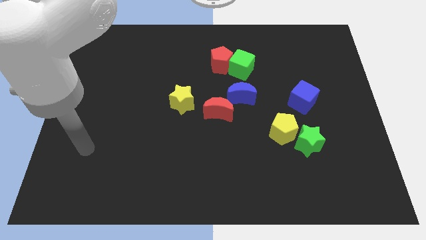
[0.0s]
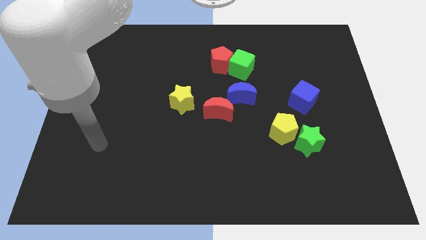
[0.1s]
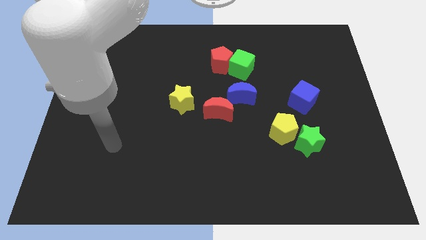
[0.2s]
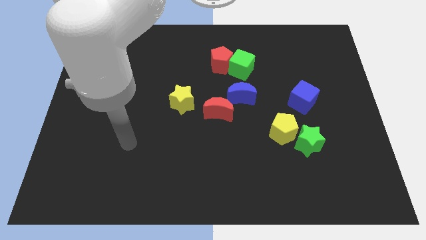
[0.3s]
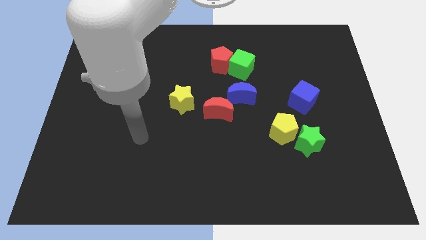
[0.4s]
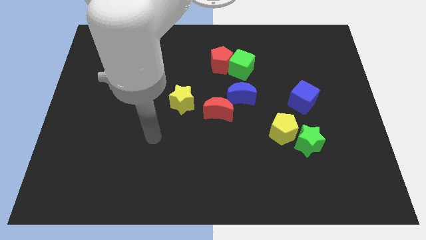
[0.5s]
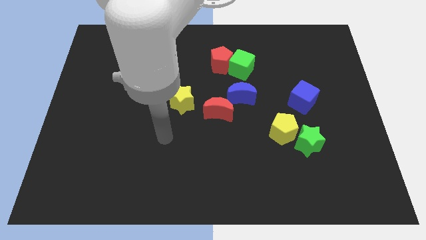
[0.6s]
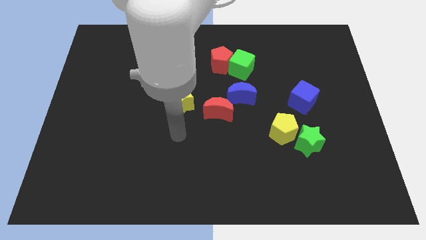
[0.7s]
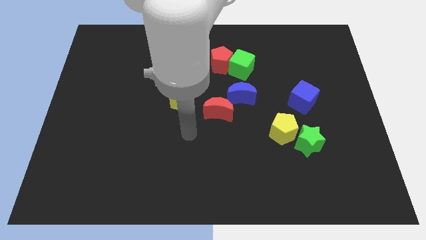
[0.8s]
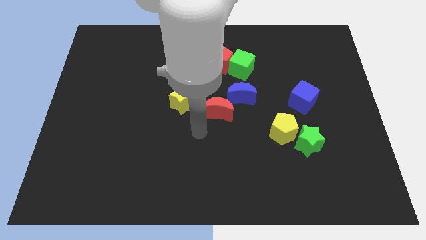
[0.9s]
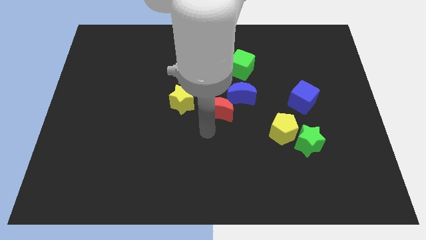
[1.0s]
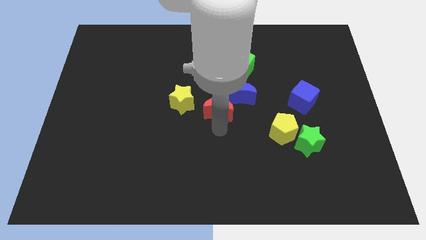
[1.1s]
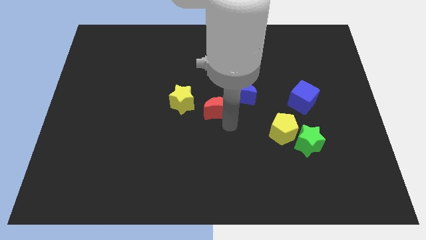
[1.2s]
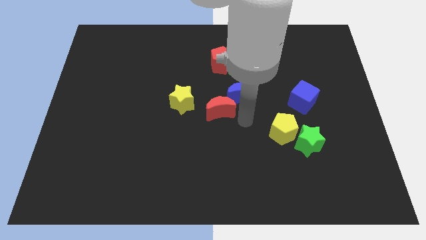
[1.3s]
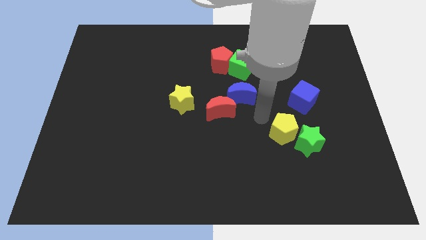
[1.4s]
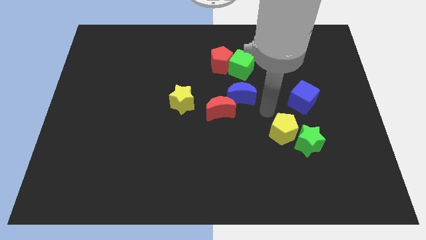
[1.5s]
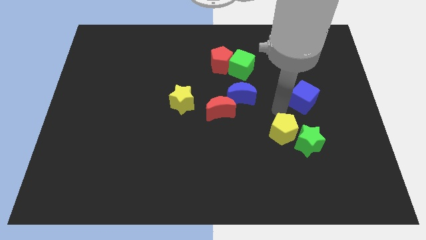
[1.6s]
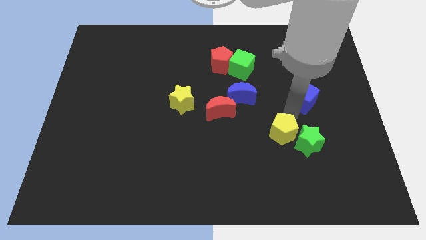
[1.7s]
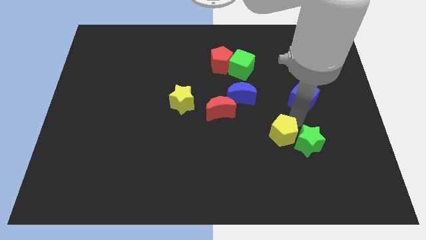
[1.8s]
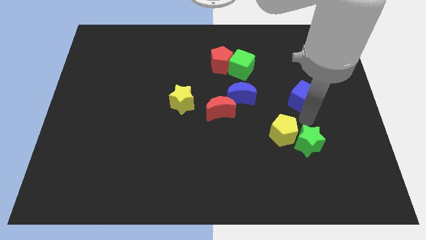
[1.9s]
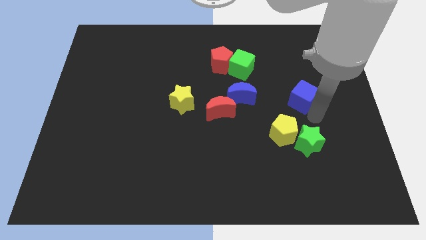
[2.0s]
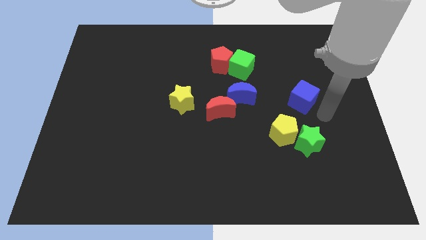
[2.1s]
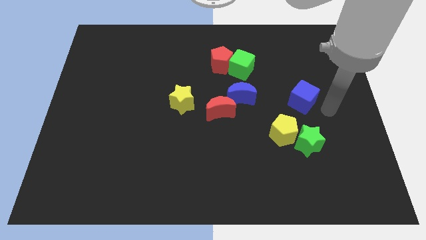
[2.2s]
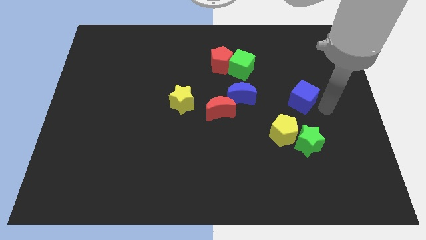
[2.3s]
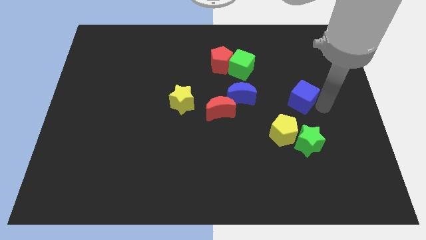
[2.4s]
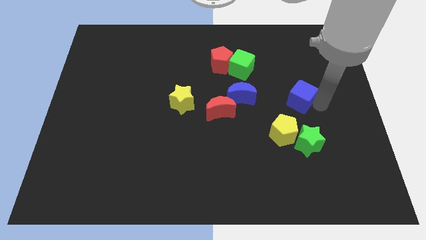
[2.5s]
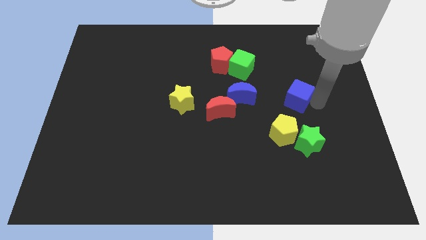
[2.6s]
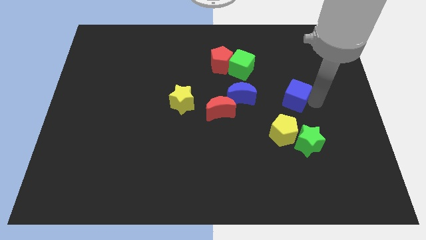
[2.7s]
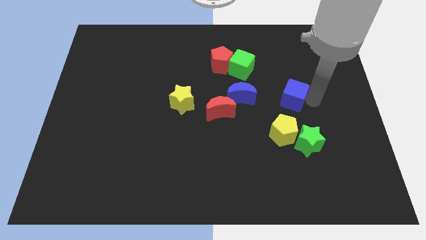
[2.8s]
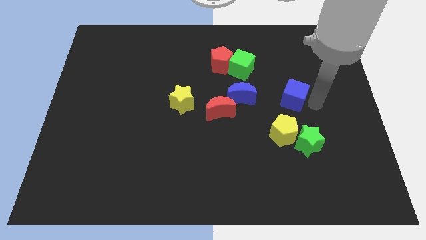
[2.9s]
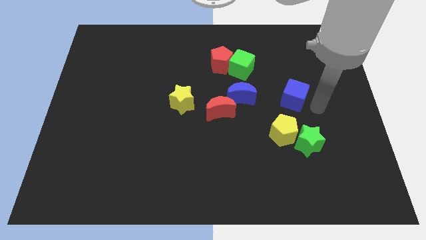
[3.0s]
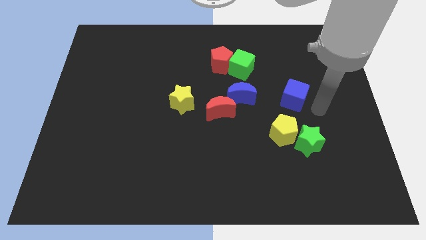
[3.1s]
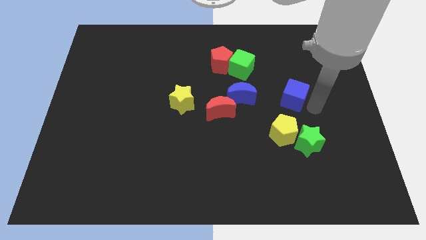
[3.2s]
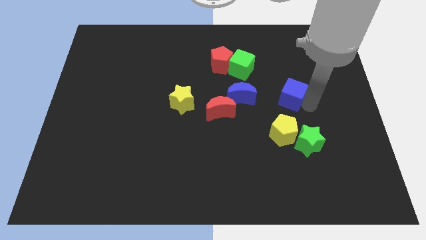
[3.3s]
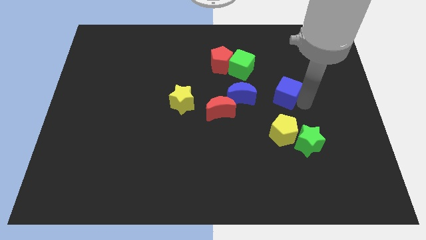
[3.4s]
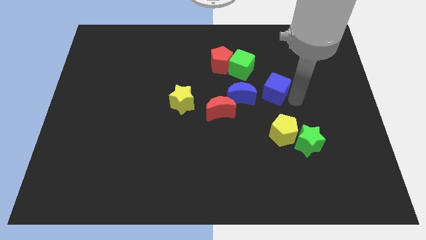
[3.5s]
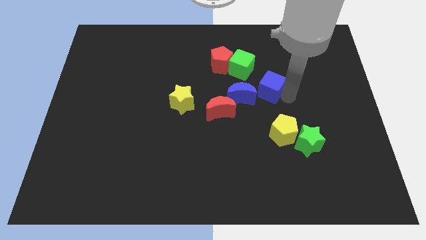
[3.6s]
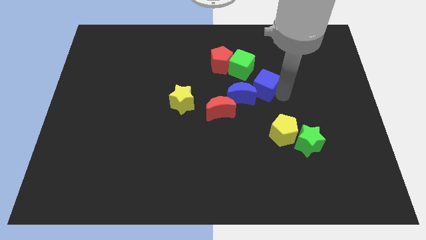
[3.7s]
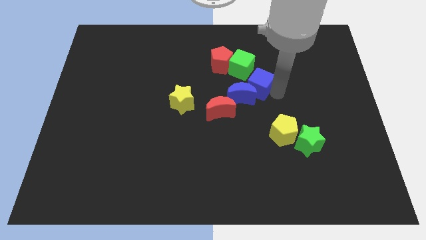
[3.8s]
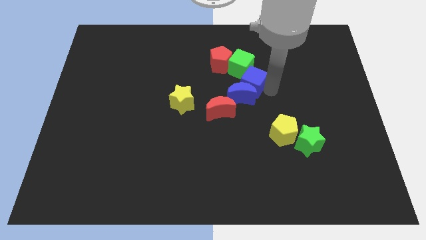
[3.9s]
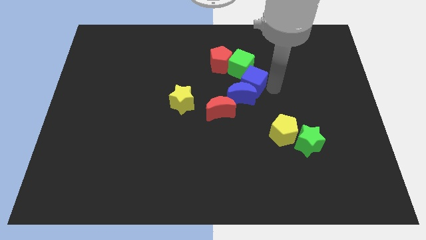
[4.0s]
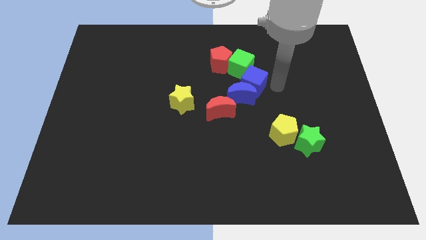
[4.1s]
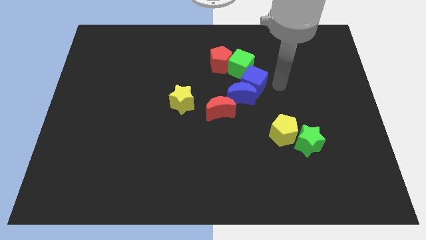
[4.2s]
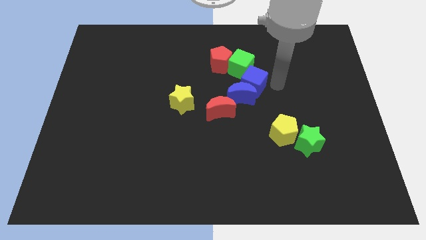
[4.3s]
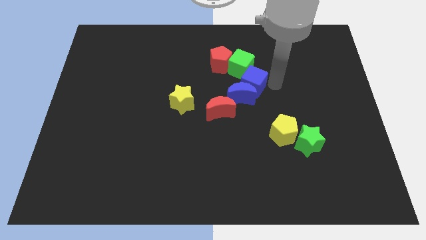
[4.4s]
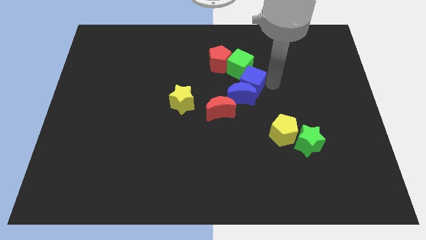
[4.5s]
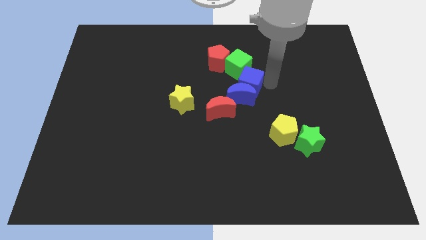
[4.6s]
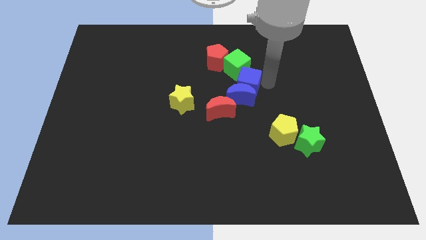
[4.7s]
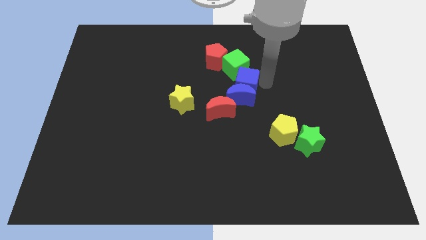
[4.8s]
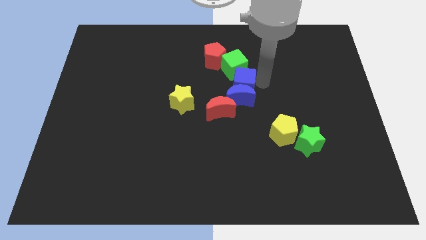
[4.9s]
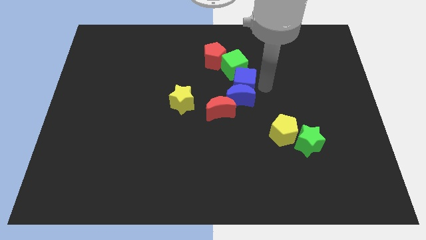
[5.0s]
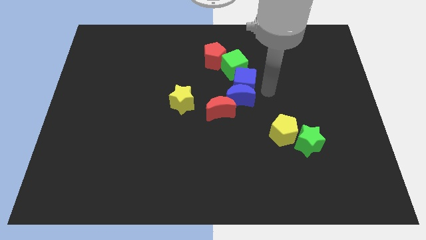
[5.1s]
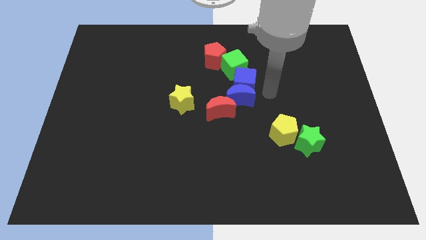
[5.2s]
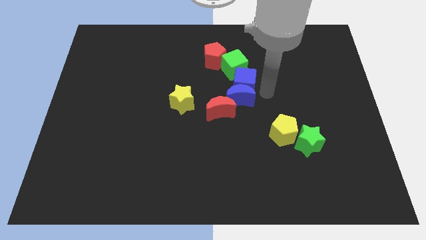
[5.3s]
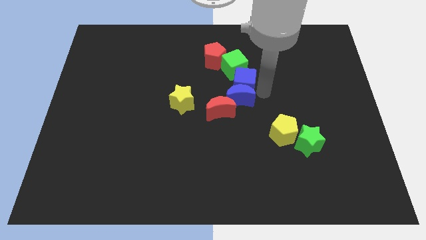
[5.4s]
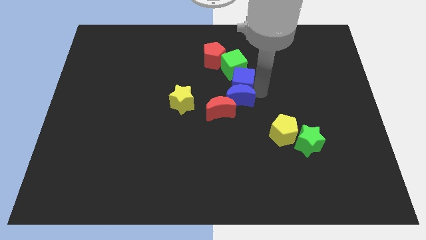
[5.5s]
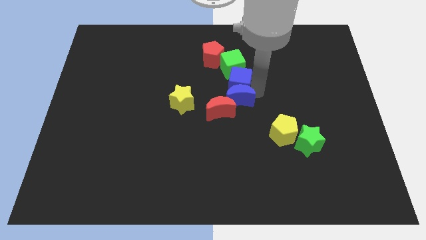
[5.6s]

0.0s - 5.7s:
push the blue cube above the red moon

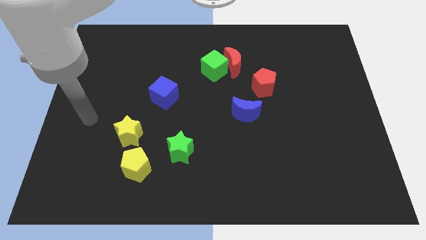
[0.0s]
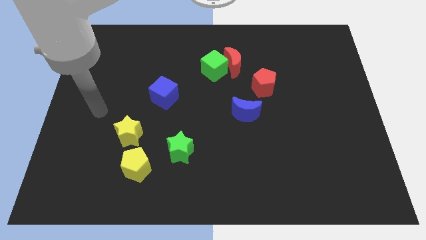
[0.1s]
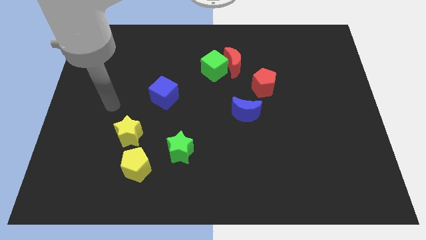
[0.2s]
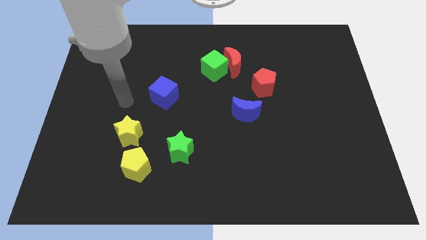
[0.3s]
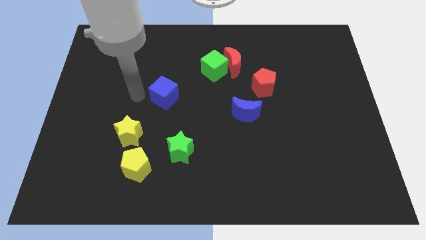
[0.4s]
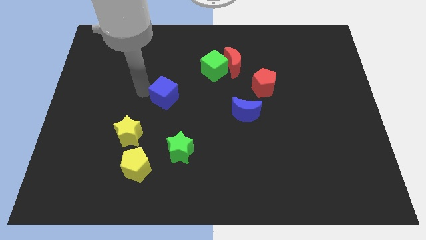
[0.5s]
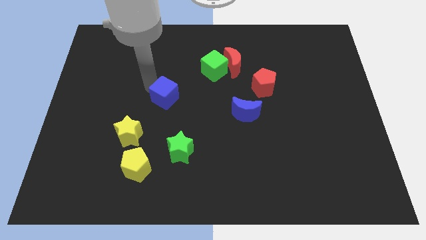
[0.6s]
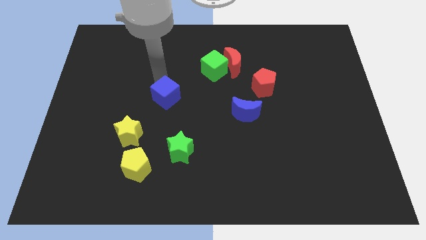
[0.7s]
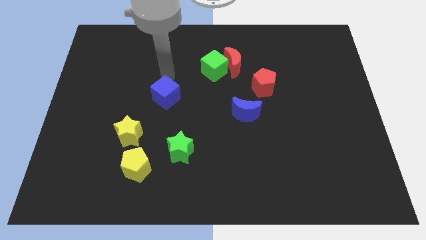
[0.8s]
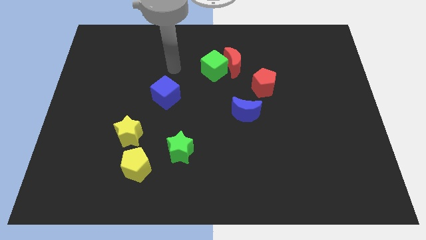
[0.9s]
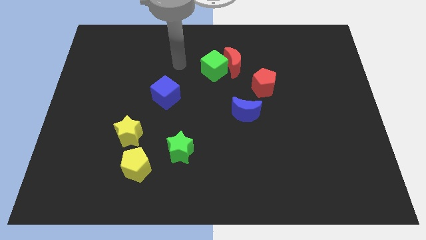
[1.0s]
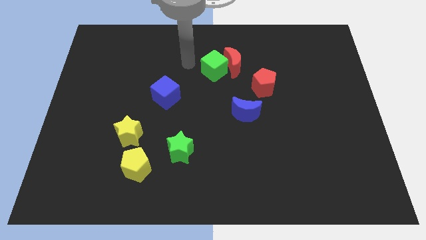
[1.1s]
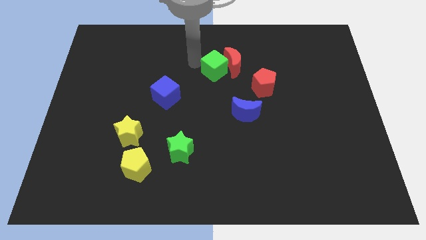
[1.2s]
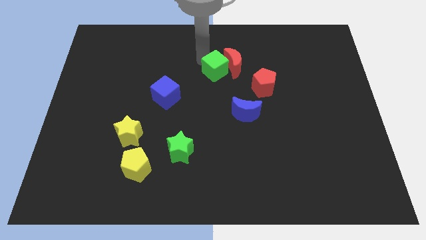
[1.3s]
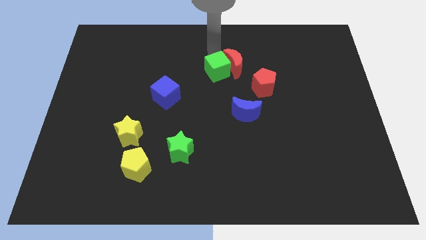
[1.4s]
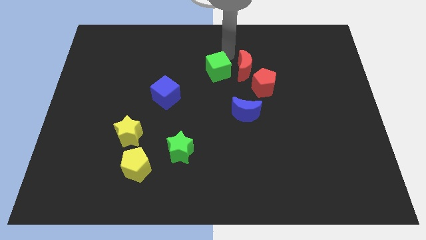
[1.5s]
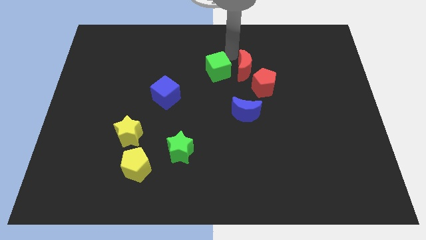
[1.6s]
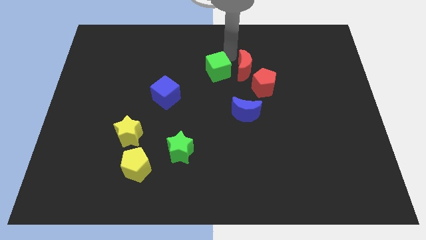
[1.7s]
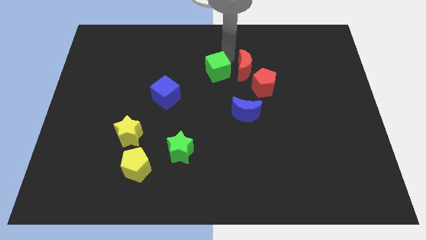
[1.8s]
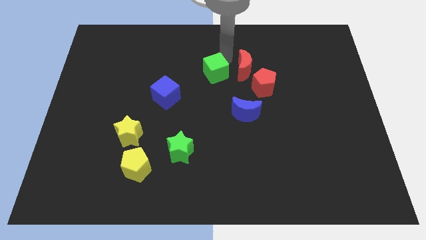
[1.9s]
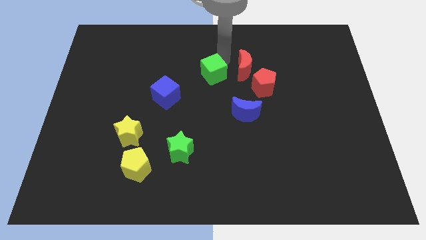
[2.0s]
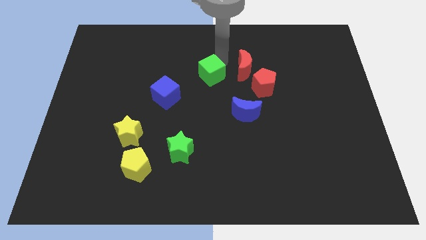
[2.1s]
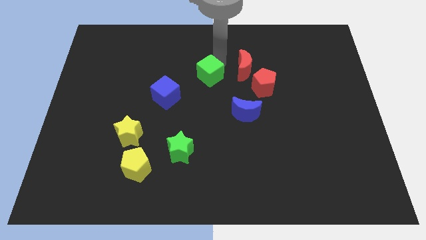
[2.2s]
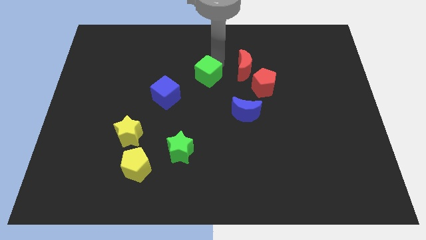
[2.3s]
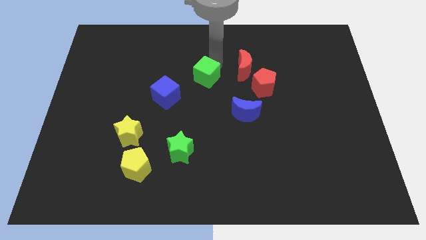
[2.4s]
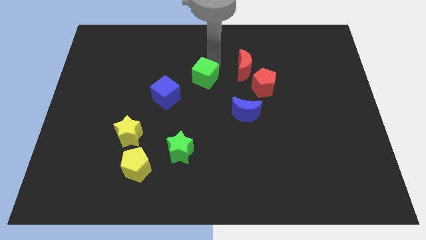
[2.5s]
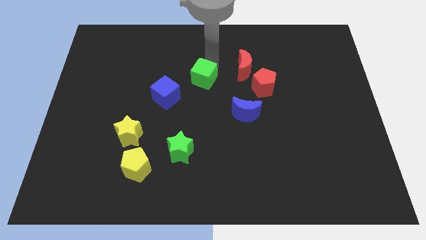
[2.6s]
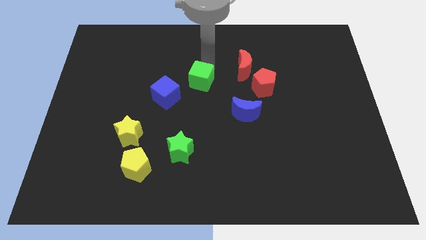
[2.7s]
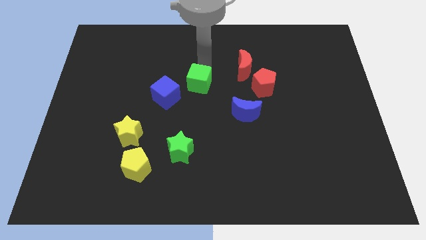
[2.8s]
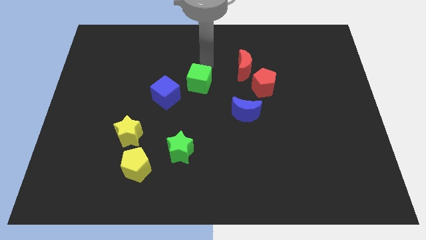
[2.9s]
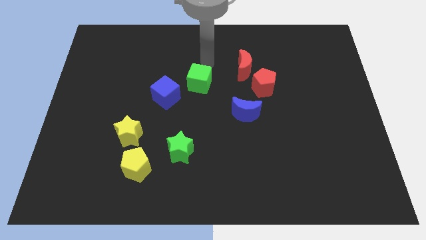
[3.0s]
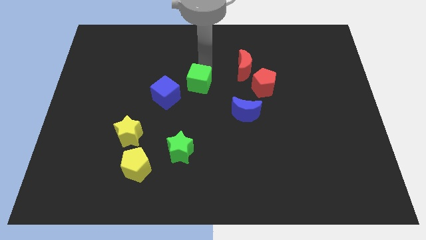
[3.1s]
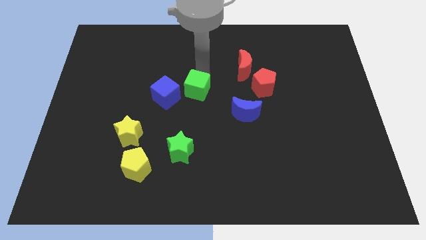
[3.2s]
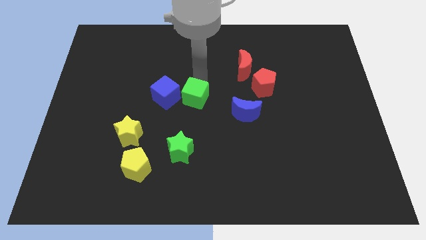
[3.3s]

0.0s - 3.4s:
move the green cube to the bottom right side of the blue cube
